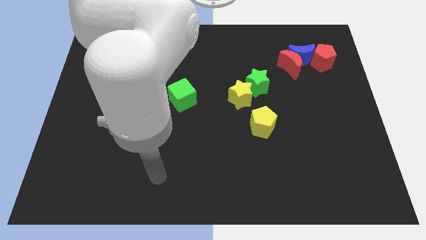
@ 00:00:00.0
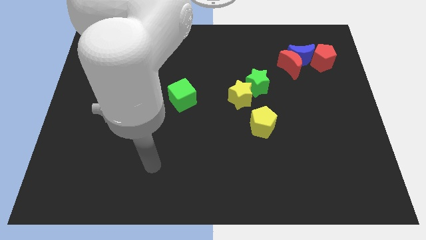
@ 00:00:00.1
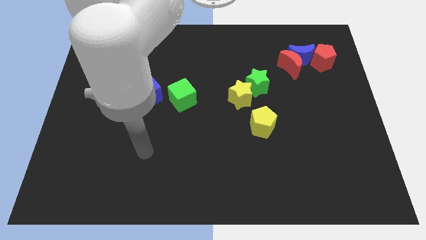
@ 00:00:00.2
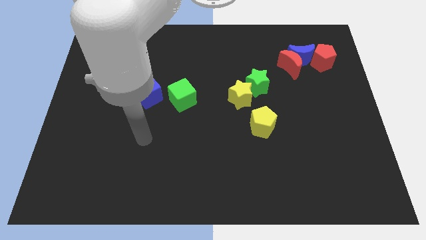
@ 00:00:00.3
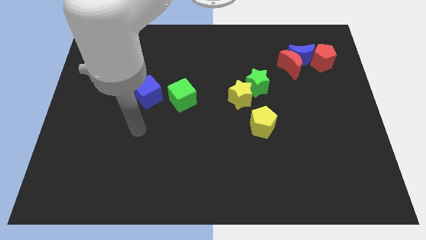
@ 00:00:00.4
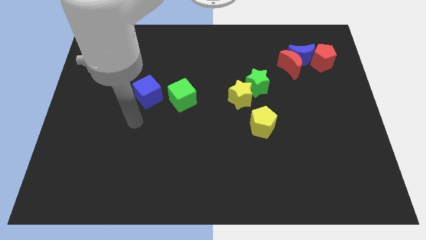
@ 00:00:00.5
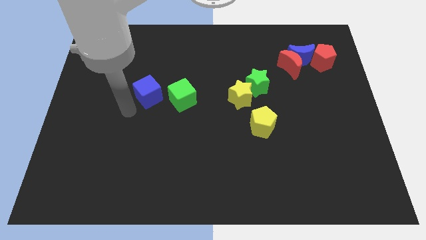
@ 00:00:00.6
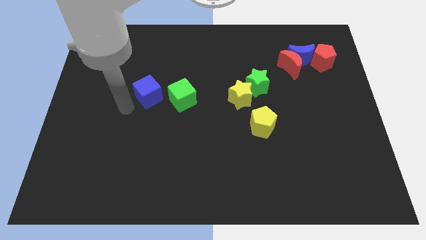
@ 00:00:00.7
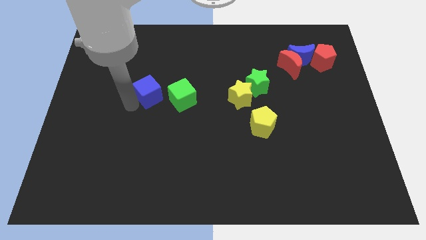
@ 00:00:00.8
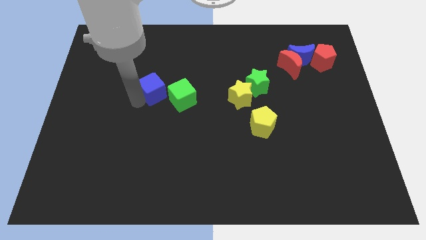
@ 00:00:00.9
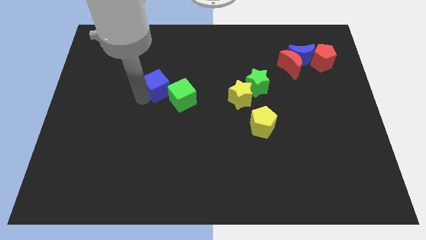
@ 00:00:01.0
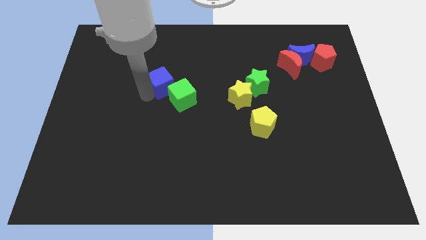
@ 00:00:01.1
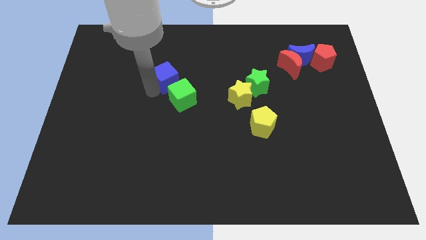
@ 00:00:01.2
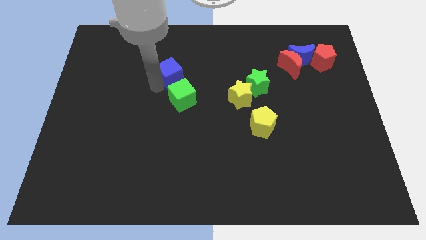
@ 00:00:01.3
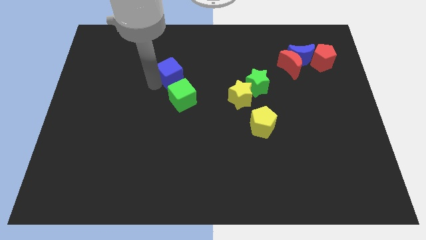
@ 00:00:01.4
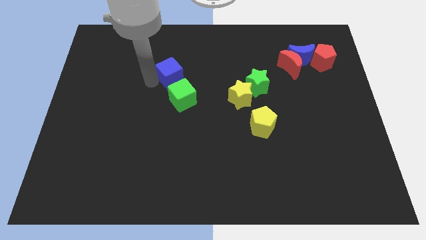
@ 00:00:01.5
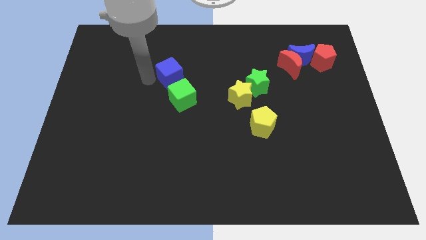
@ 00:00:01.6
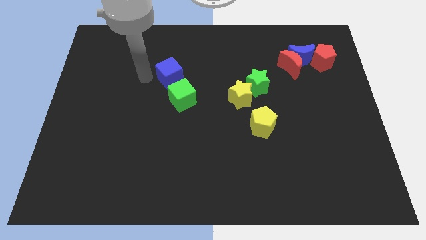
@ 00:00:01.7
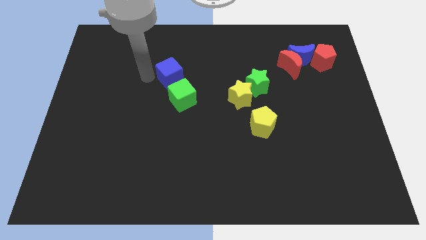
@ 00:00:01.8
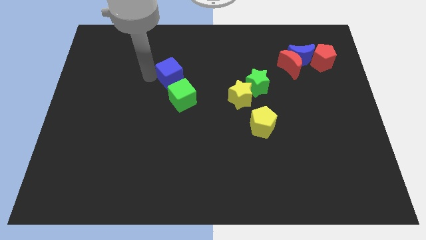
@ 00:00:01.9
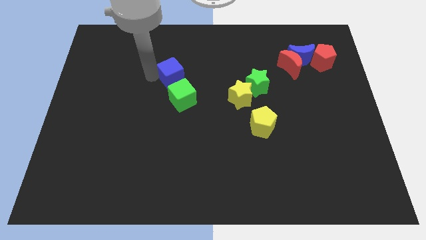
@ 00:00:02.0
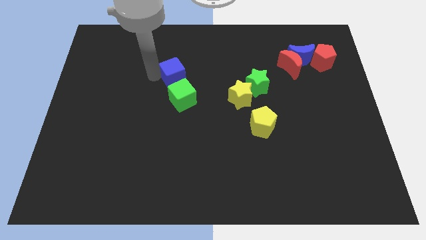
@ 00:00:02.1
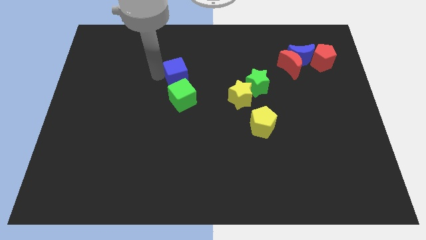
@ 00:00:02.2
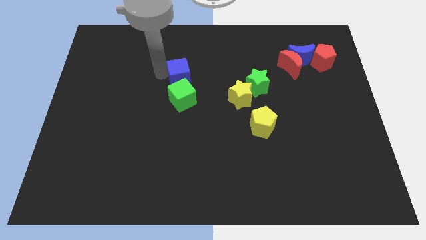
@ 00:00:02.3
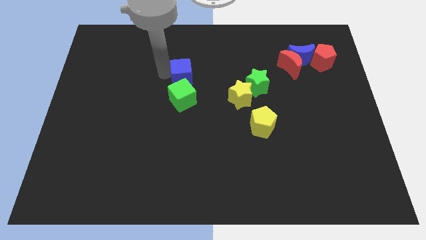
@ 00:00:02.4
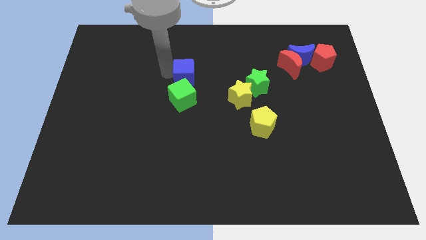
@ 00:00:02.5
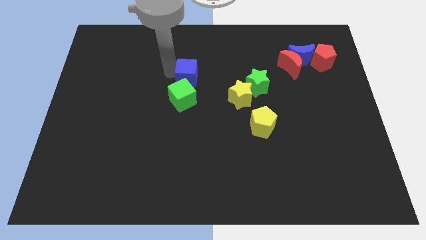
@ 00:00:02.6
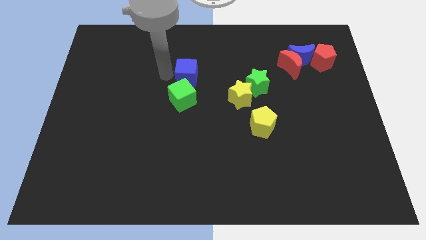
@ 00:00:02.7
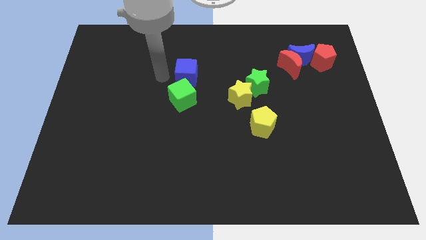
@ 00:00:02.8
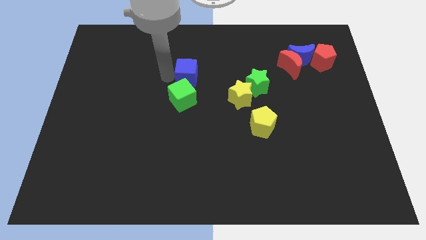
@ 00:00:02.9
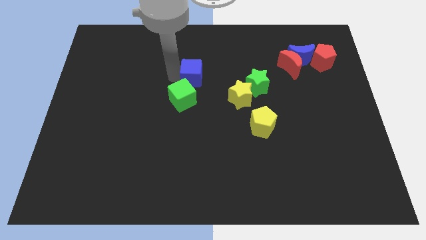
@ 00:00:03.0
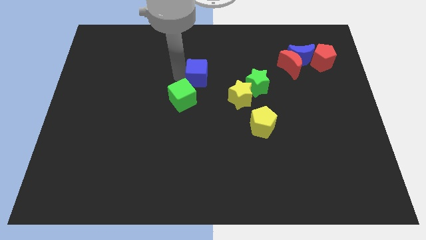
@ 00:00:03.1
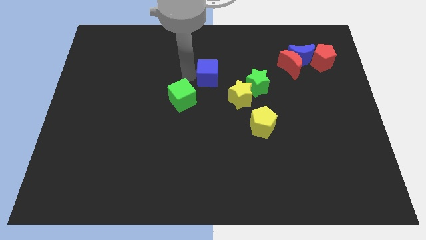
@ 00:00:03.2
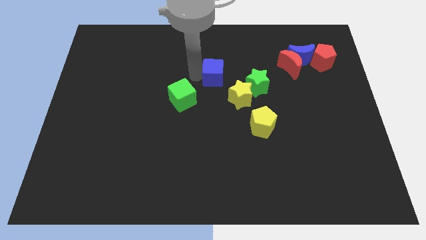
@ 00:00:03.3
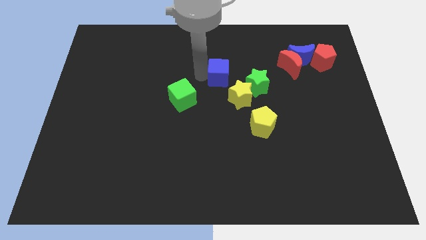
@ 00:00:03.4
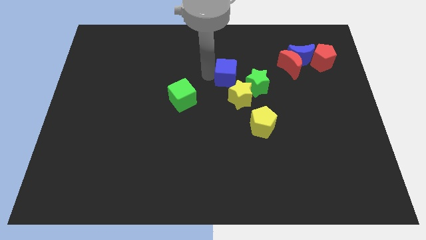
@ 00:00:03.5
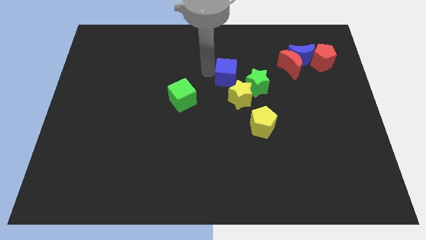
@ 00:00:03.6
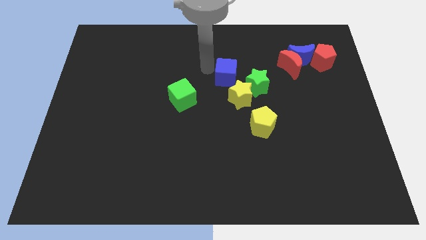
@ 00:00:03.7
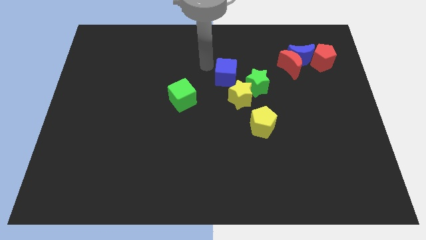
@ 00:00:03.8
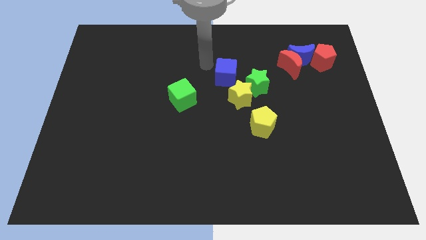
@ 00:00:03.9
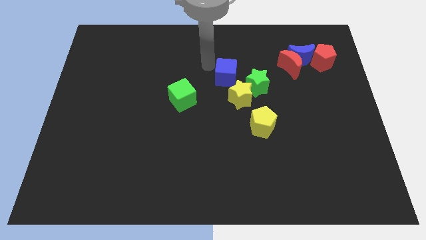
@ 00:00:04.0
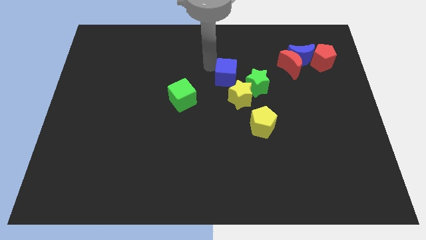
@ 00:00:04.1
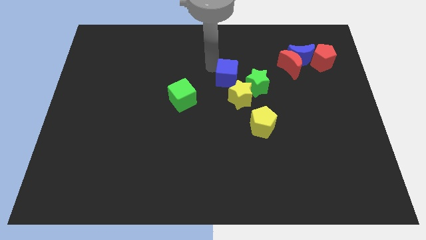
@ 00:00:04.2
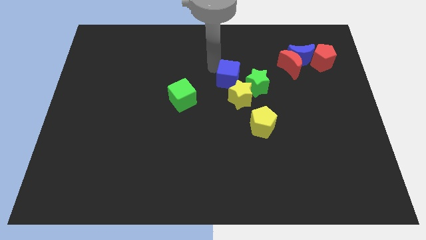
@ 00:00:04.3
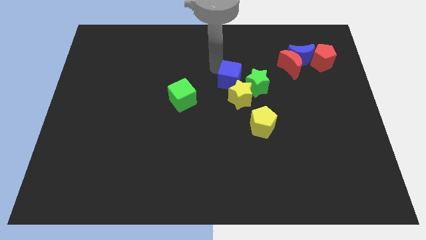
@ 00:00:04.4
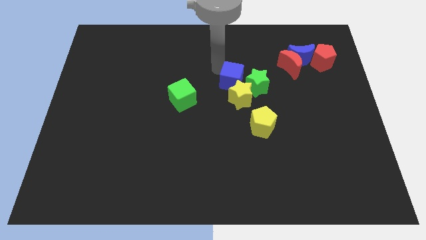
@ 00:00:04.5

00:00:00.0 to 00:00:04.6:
push the blue cube to the green star

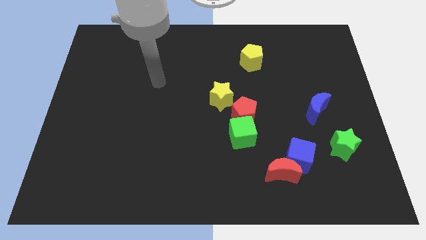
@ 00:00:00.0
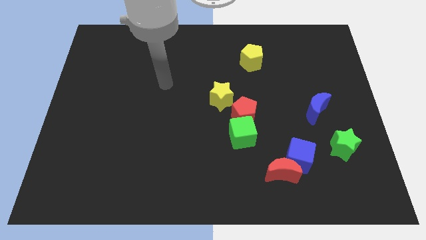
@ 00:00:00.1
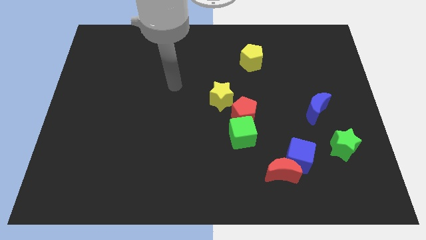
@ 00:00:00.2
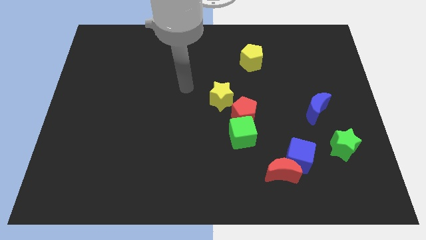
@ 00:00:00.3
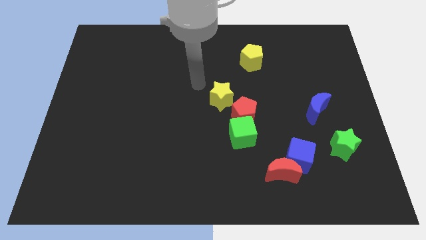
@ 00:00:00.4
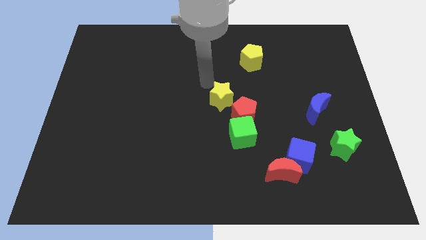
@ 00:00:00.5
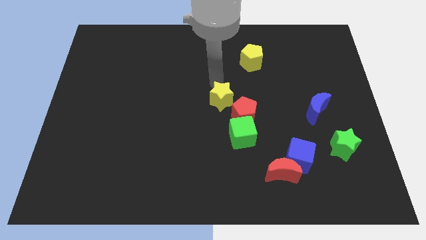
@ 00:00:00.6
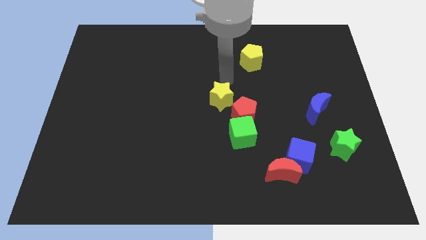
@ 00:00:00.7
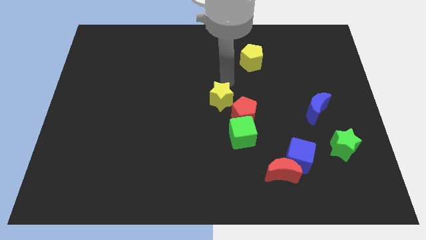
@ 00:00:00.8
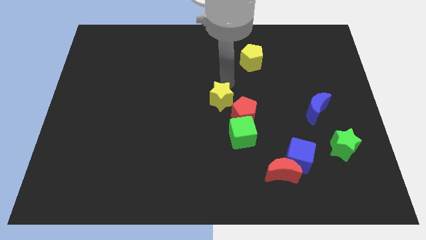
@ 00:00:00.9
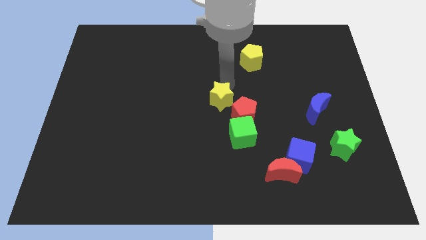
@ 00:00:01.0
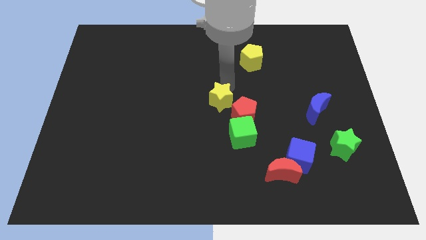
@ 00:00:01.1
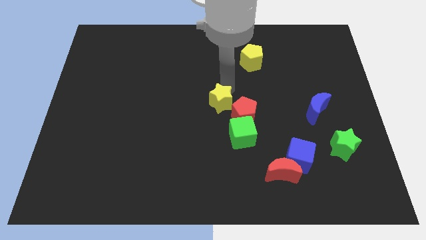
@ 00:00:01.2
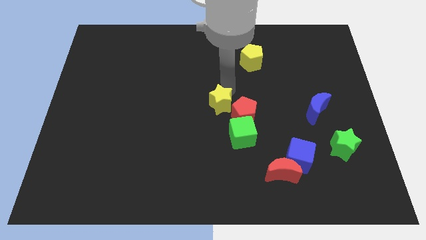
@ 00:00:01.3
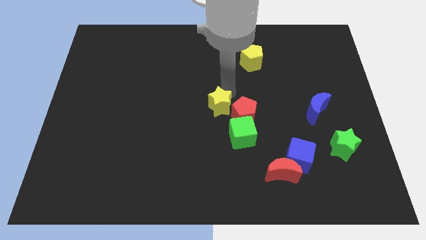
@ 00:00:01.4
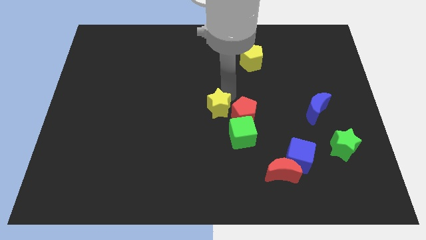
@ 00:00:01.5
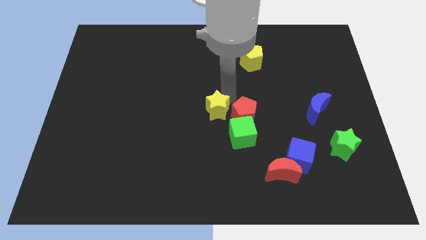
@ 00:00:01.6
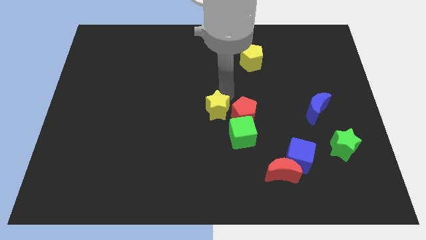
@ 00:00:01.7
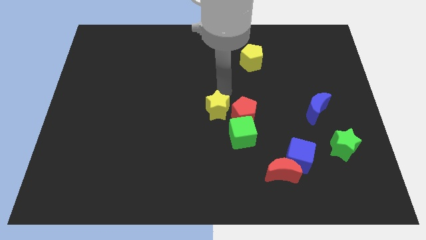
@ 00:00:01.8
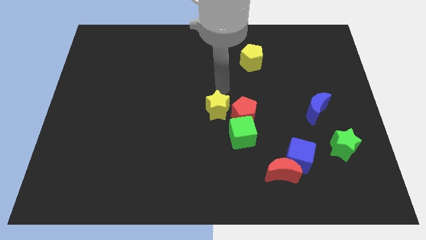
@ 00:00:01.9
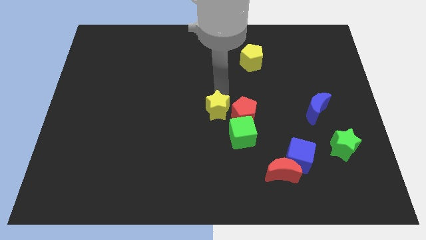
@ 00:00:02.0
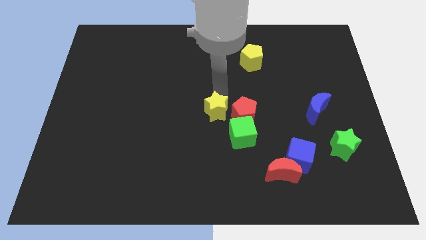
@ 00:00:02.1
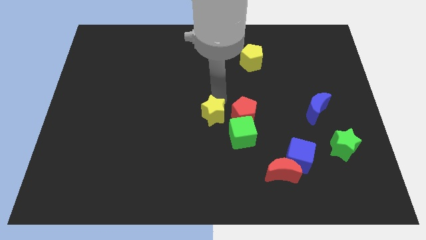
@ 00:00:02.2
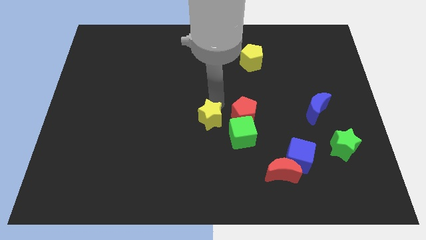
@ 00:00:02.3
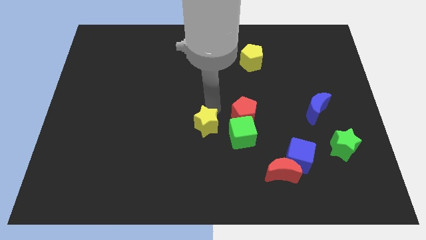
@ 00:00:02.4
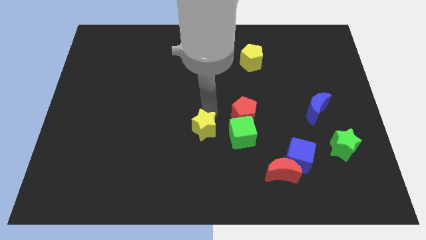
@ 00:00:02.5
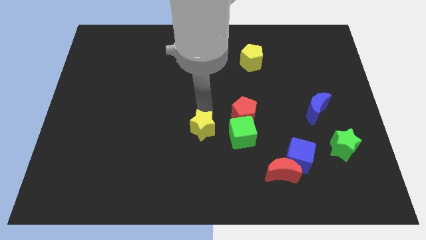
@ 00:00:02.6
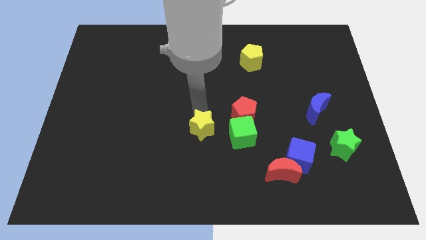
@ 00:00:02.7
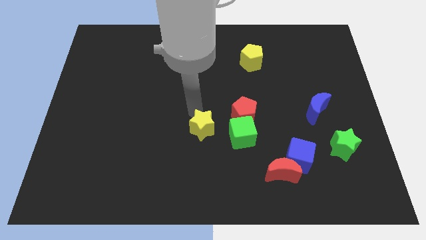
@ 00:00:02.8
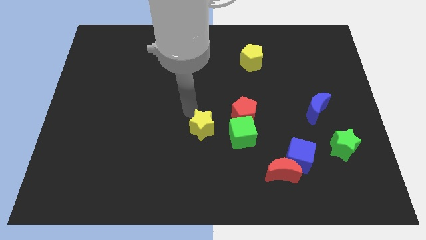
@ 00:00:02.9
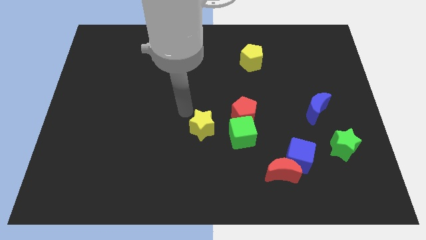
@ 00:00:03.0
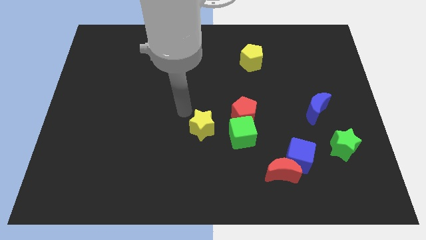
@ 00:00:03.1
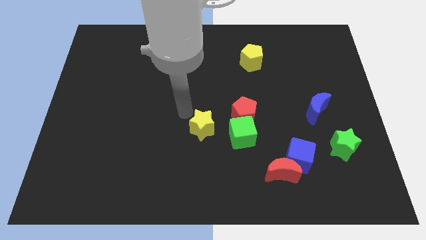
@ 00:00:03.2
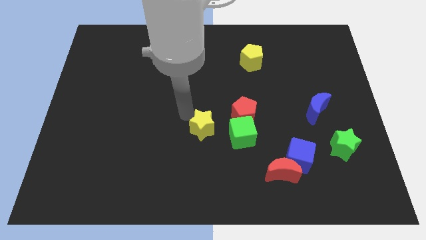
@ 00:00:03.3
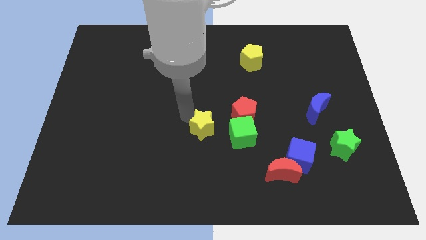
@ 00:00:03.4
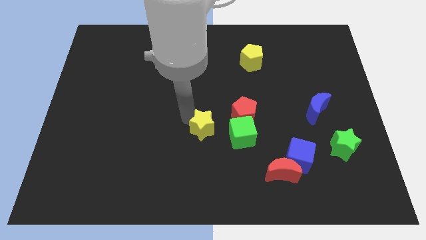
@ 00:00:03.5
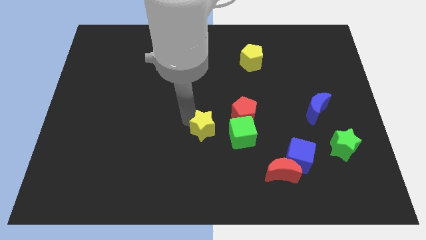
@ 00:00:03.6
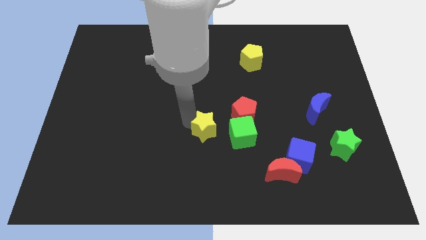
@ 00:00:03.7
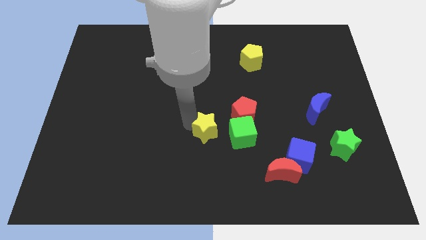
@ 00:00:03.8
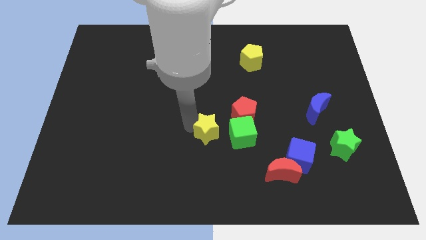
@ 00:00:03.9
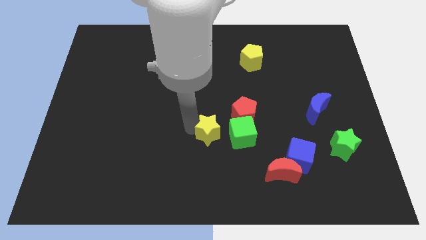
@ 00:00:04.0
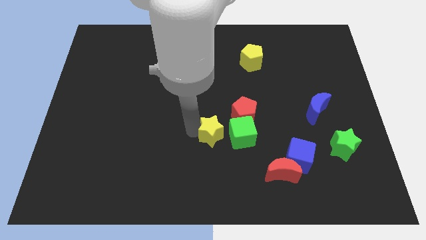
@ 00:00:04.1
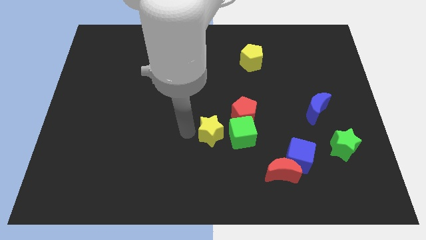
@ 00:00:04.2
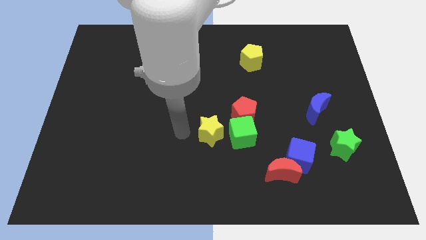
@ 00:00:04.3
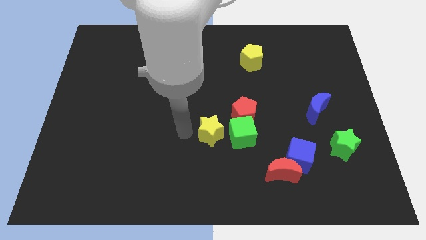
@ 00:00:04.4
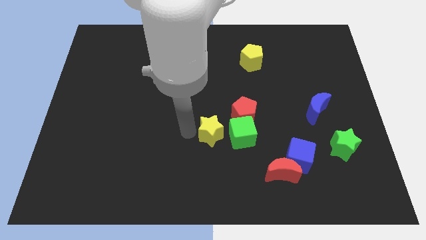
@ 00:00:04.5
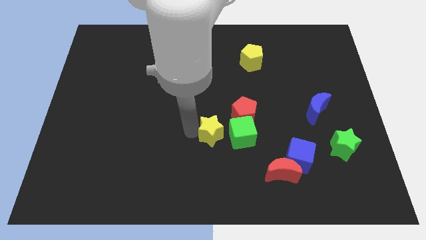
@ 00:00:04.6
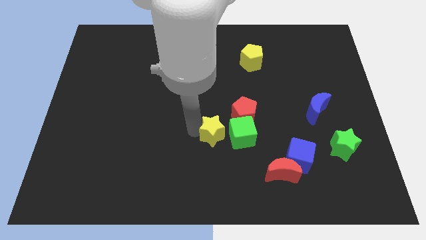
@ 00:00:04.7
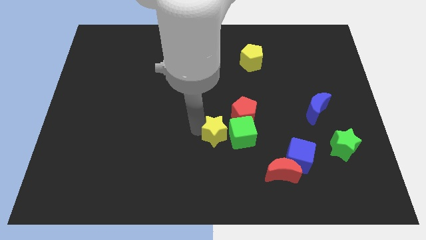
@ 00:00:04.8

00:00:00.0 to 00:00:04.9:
move the yellow star next to the green cube
